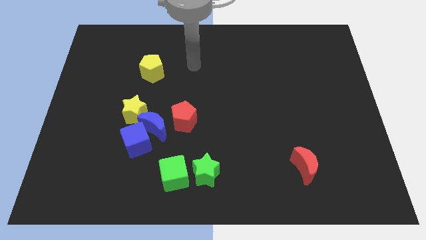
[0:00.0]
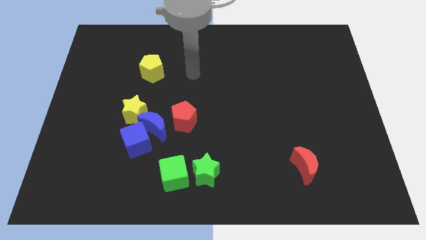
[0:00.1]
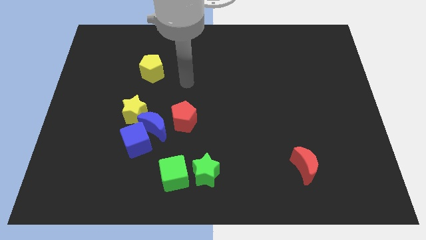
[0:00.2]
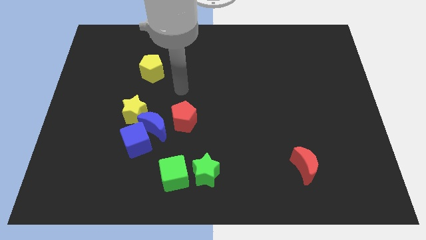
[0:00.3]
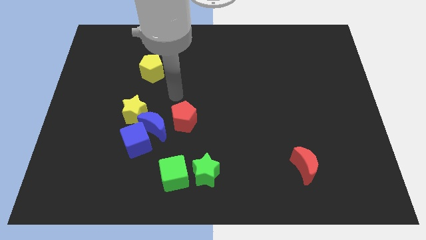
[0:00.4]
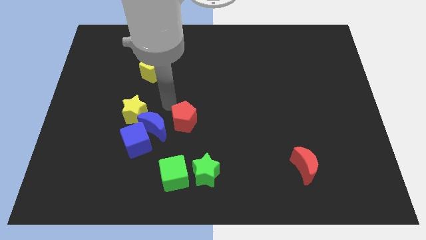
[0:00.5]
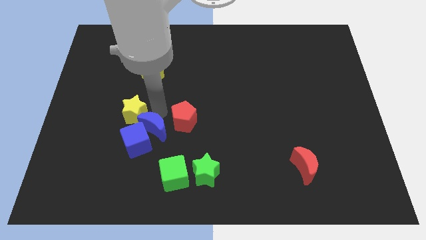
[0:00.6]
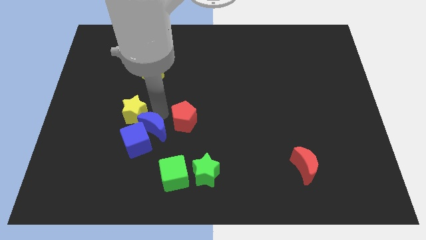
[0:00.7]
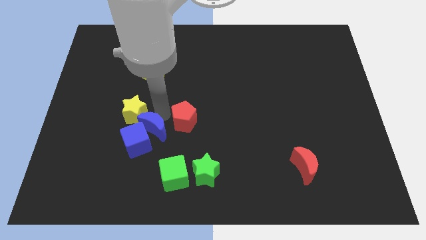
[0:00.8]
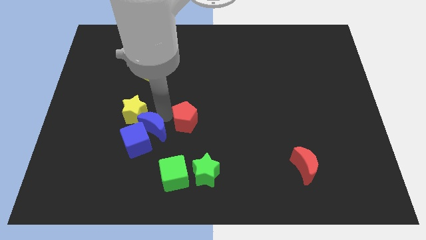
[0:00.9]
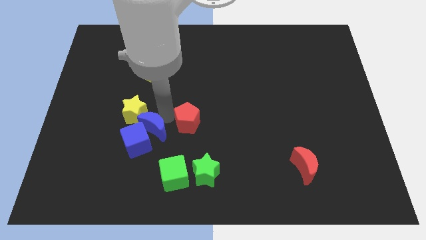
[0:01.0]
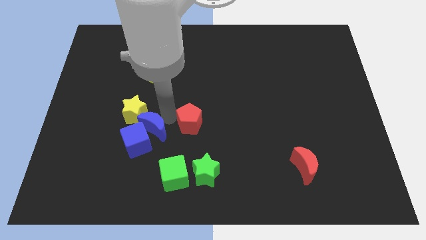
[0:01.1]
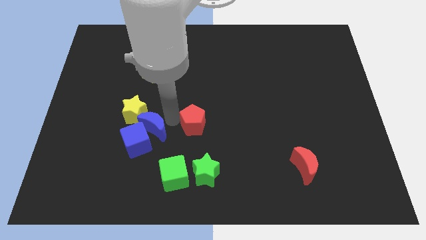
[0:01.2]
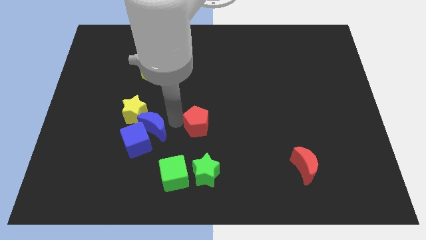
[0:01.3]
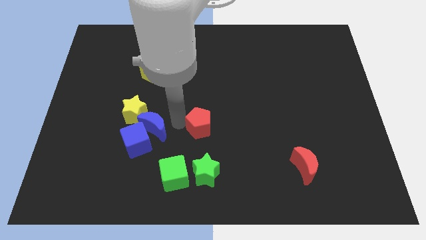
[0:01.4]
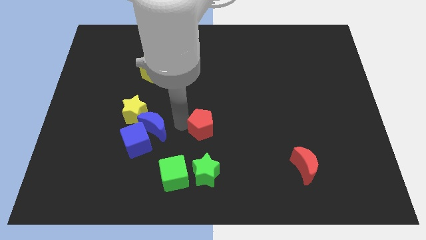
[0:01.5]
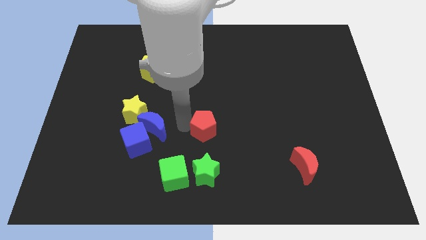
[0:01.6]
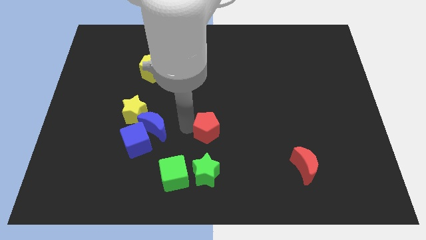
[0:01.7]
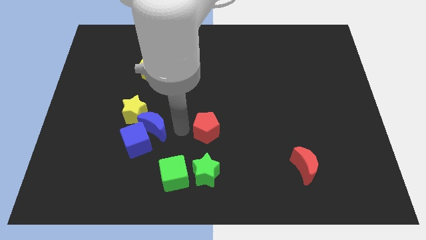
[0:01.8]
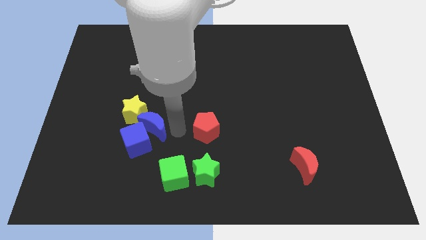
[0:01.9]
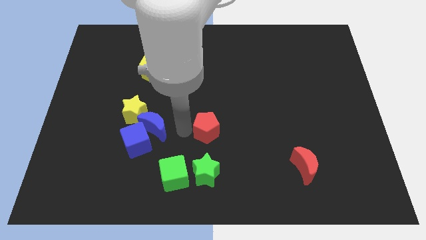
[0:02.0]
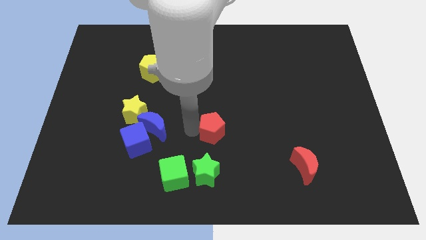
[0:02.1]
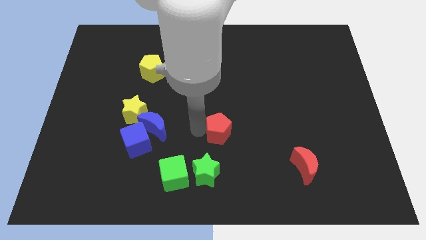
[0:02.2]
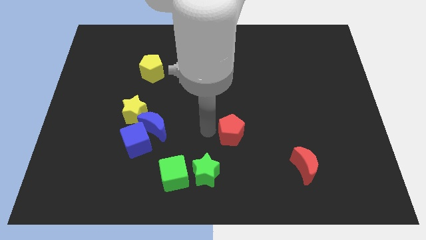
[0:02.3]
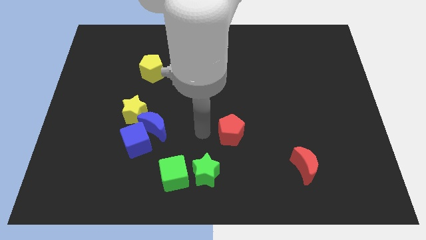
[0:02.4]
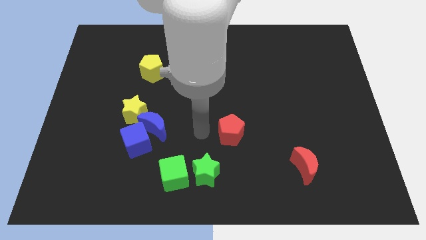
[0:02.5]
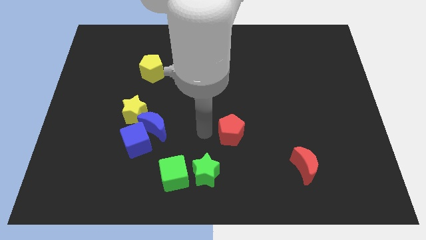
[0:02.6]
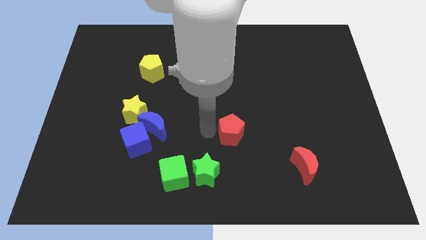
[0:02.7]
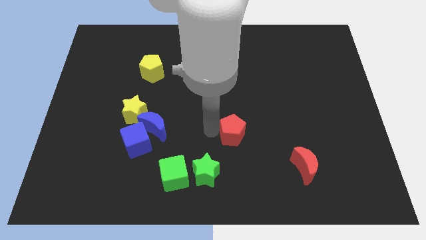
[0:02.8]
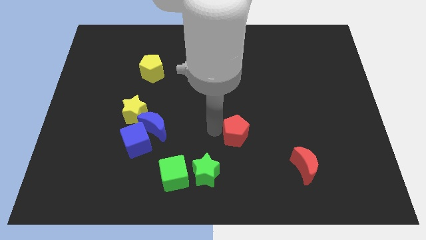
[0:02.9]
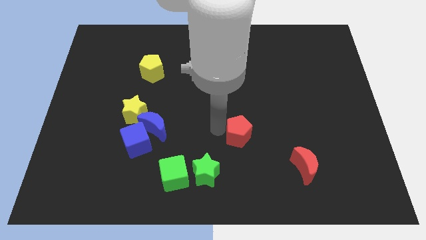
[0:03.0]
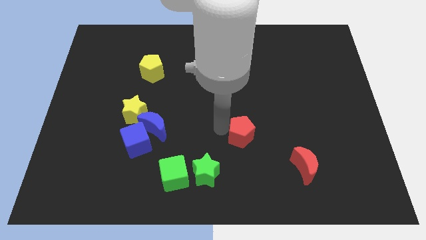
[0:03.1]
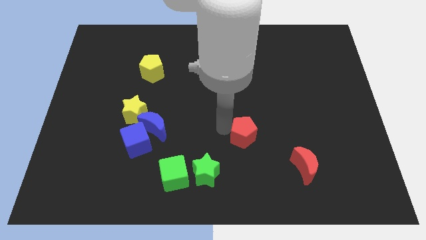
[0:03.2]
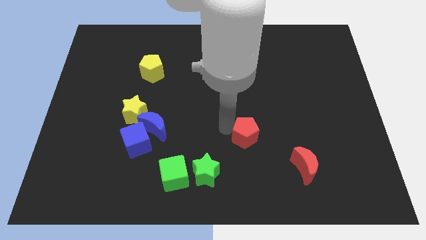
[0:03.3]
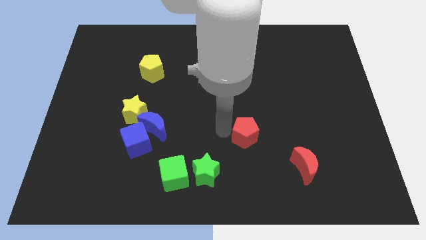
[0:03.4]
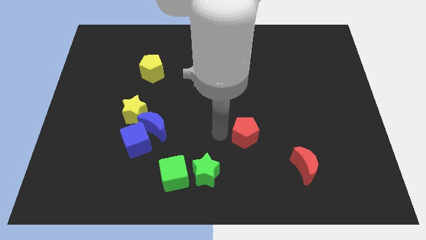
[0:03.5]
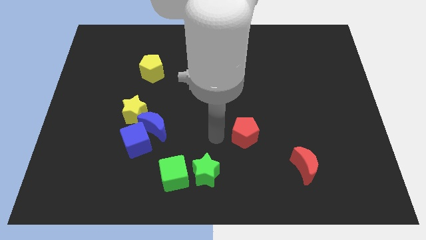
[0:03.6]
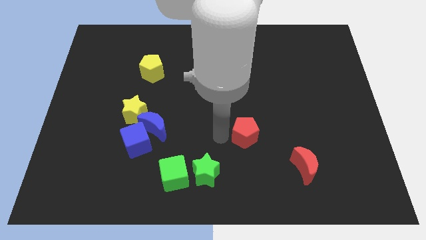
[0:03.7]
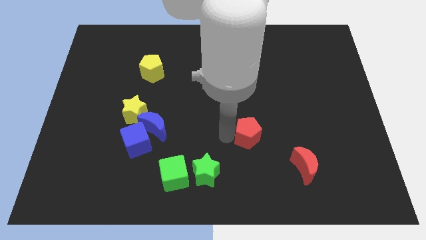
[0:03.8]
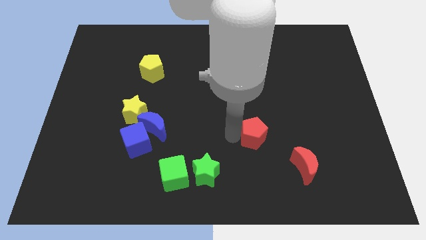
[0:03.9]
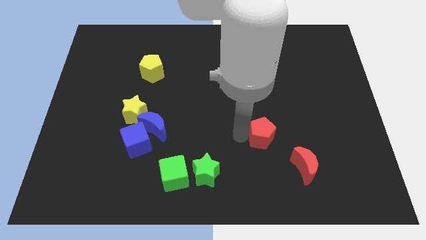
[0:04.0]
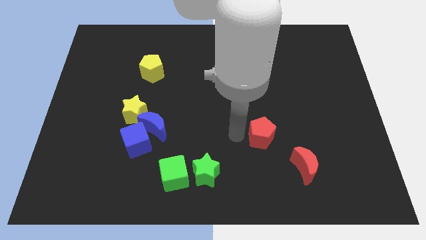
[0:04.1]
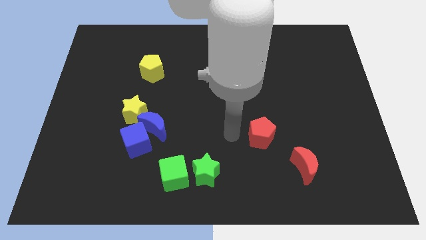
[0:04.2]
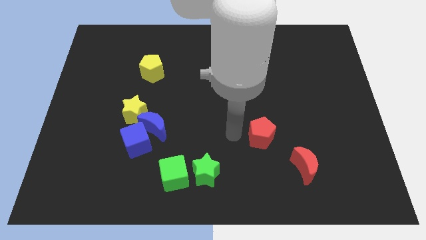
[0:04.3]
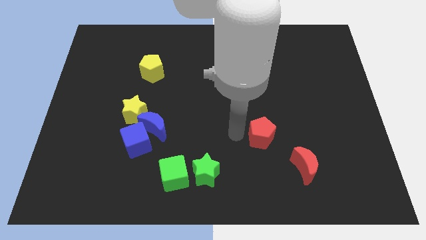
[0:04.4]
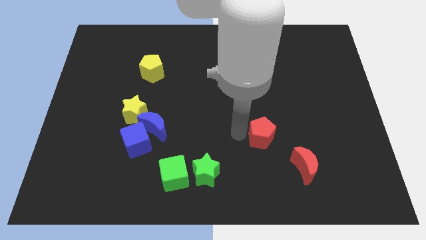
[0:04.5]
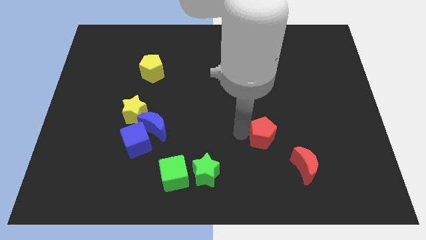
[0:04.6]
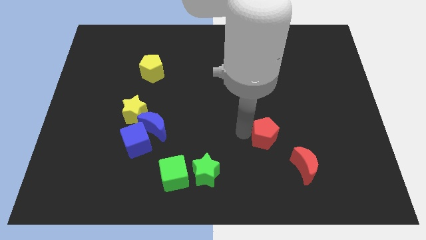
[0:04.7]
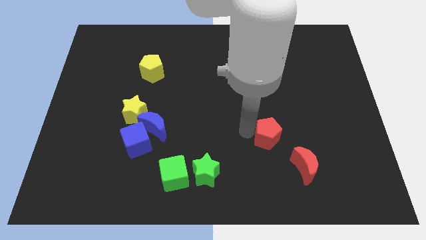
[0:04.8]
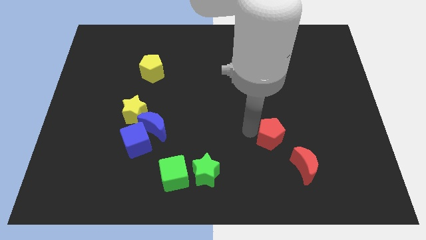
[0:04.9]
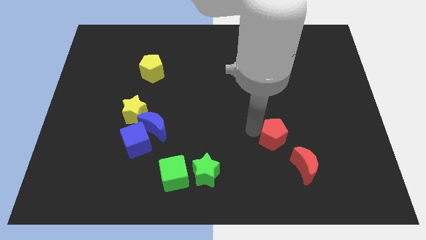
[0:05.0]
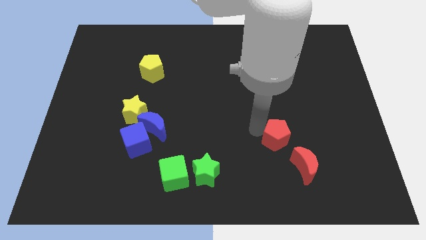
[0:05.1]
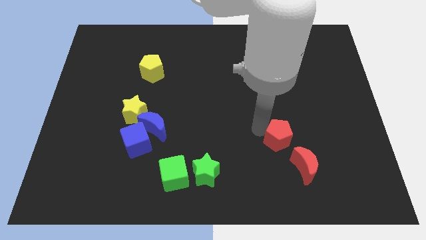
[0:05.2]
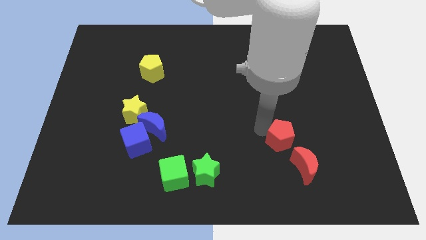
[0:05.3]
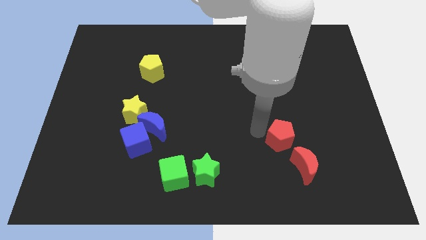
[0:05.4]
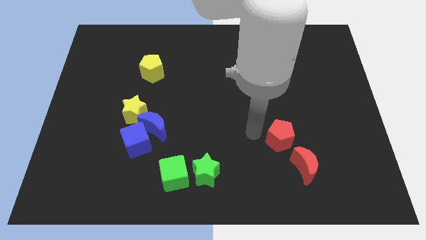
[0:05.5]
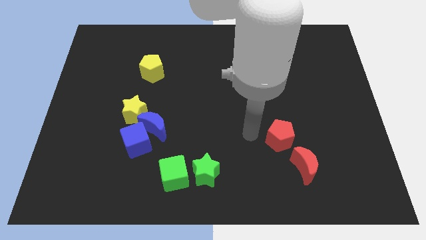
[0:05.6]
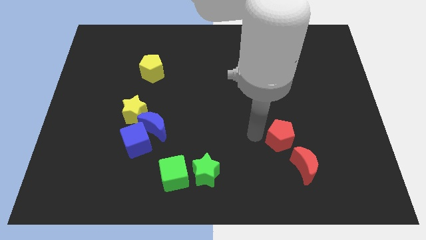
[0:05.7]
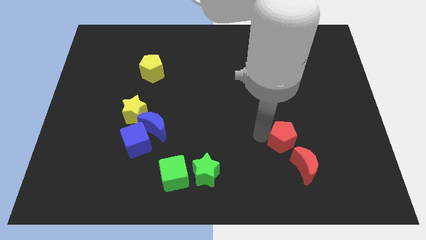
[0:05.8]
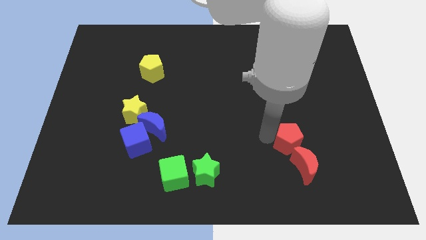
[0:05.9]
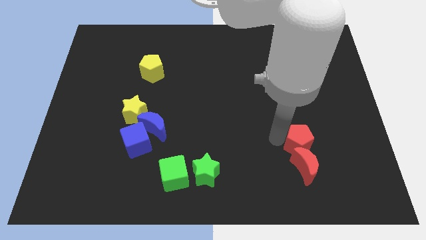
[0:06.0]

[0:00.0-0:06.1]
put the red pentagon to the top right side of the red moon

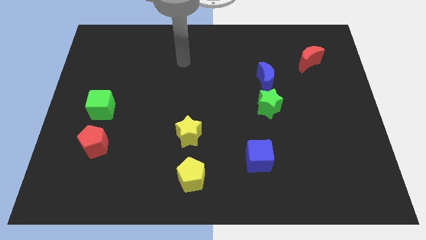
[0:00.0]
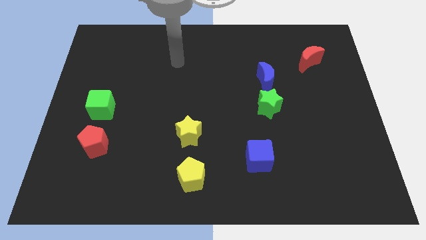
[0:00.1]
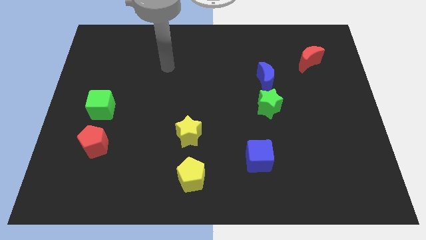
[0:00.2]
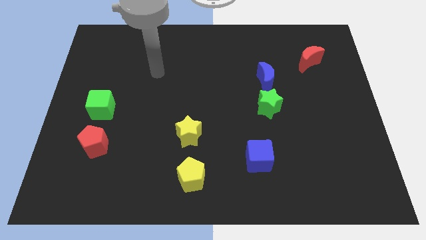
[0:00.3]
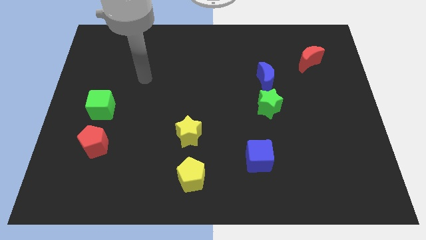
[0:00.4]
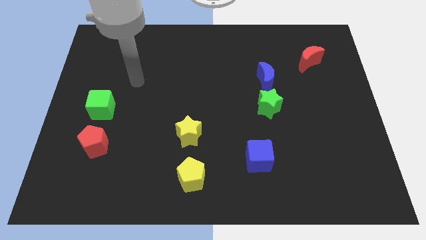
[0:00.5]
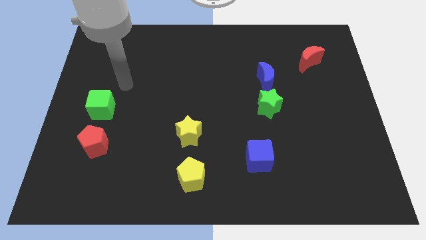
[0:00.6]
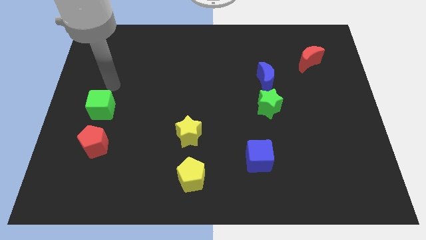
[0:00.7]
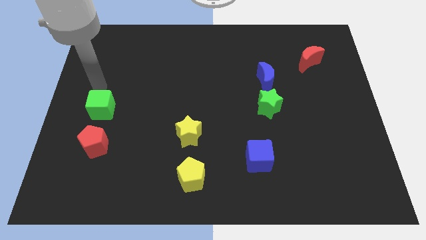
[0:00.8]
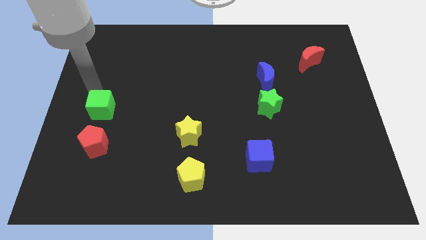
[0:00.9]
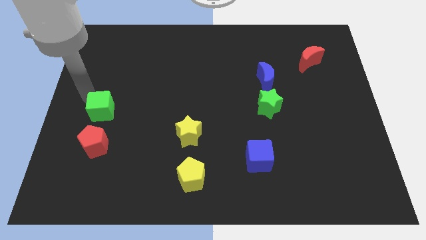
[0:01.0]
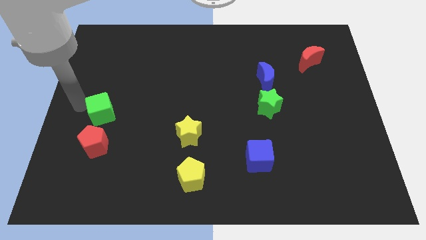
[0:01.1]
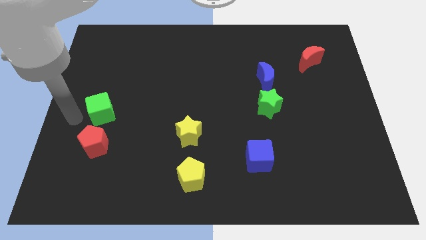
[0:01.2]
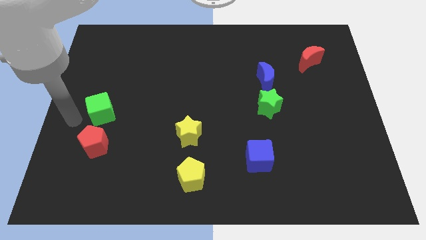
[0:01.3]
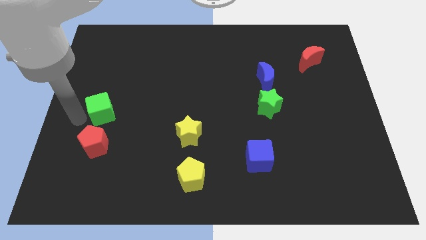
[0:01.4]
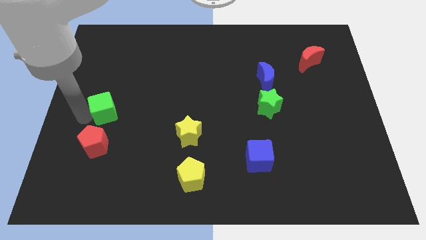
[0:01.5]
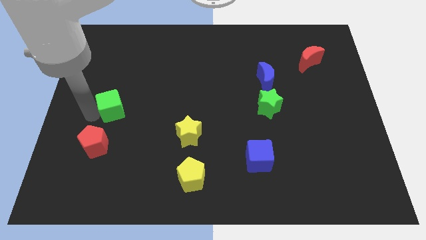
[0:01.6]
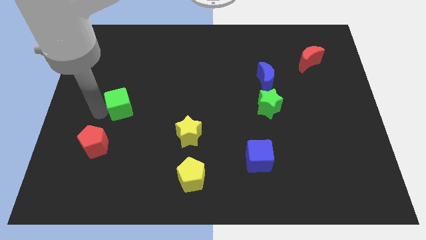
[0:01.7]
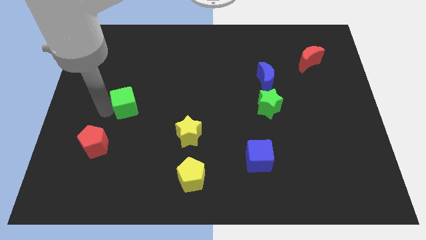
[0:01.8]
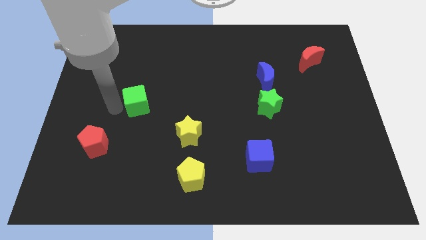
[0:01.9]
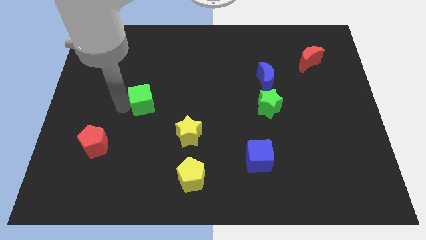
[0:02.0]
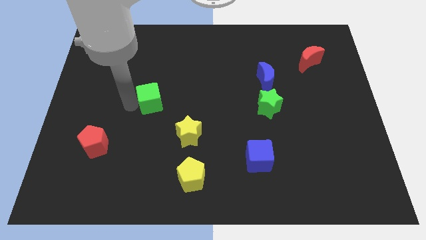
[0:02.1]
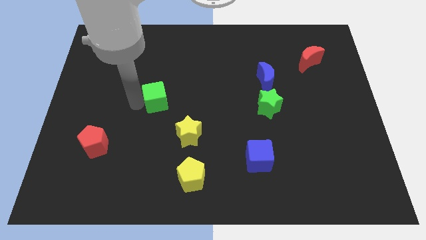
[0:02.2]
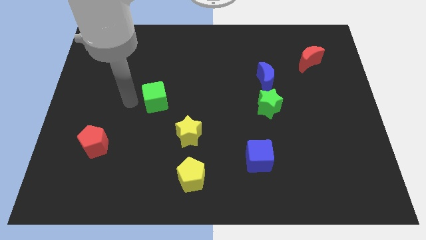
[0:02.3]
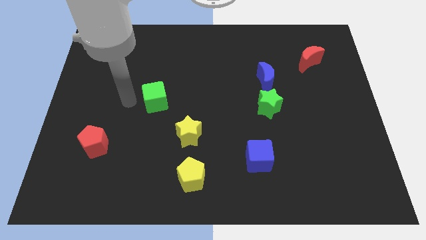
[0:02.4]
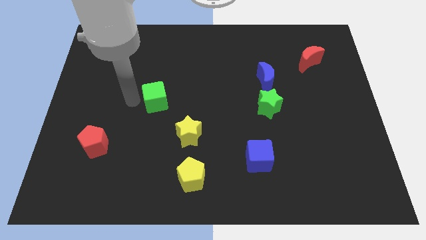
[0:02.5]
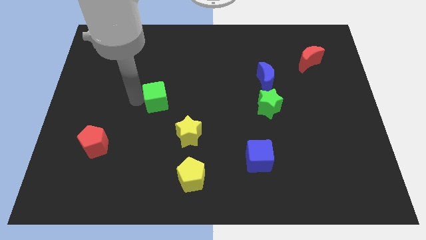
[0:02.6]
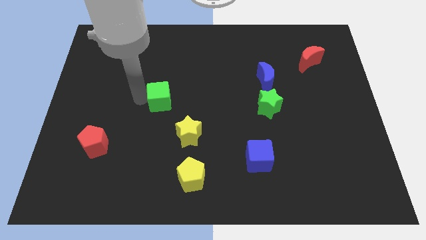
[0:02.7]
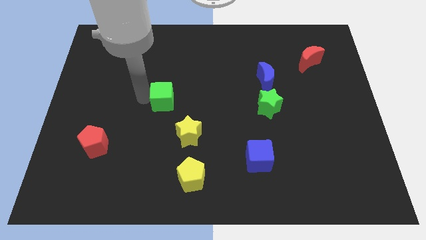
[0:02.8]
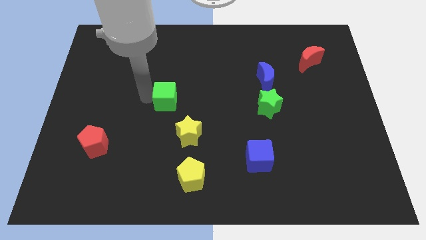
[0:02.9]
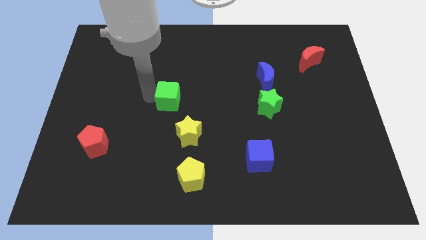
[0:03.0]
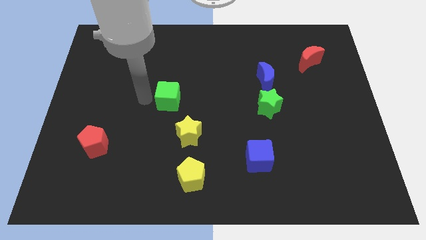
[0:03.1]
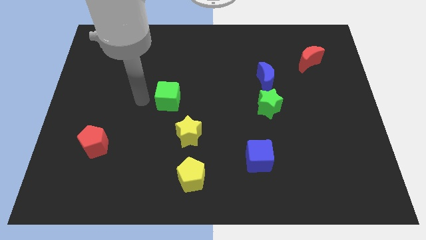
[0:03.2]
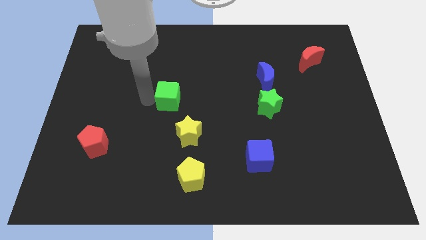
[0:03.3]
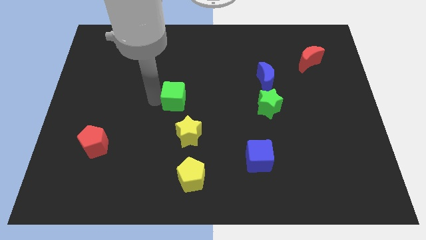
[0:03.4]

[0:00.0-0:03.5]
put the green cube to the top of the yellow star
